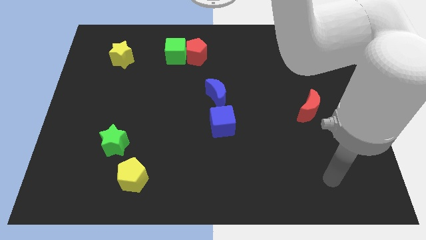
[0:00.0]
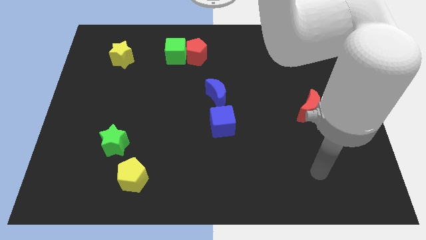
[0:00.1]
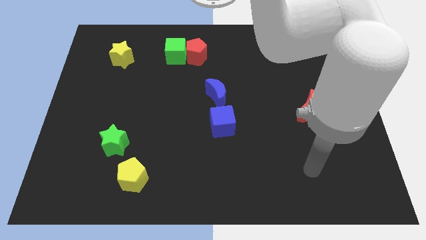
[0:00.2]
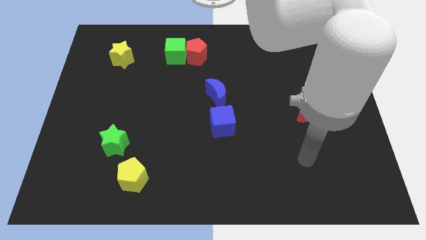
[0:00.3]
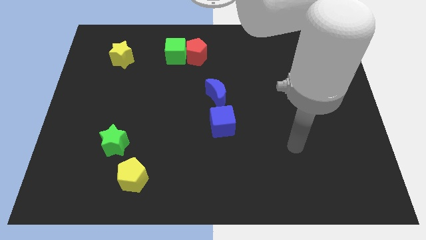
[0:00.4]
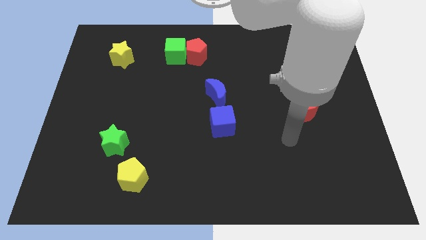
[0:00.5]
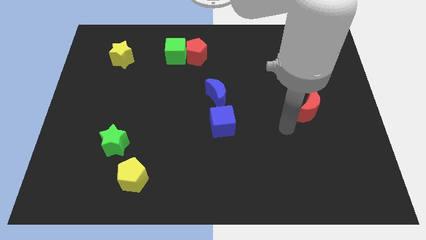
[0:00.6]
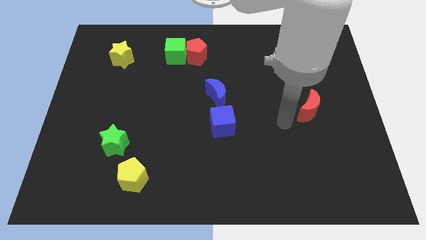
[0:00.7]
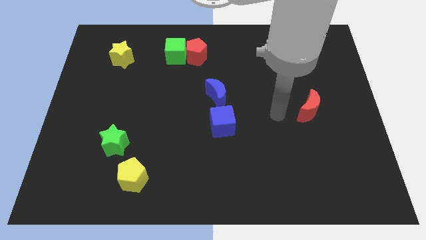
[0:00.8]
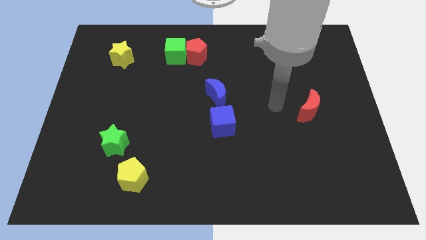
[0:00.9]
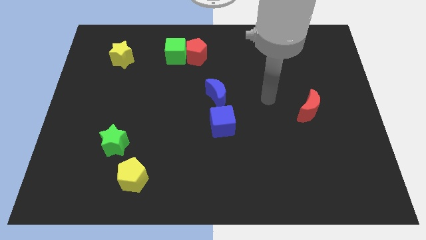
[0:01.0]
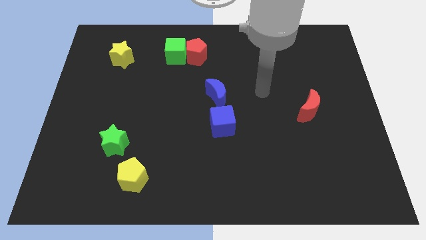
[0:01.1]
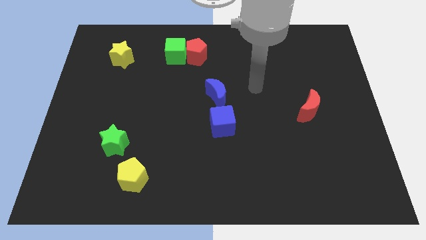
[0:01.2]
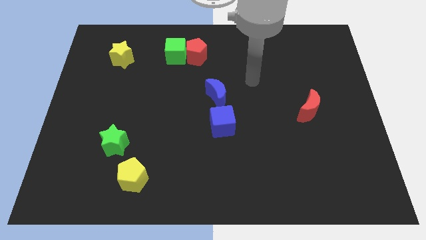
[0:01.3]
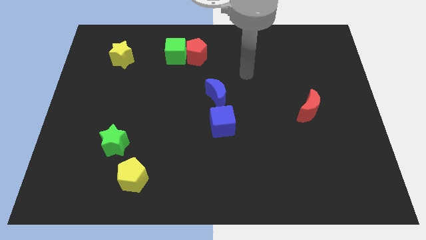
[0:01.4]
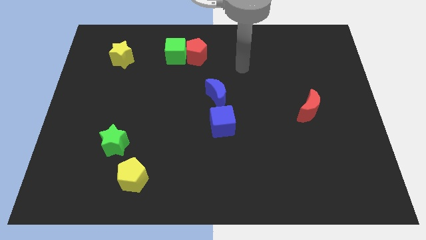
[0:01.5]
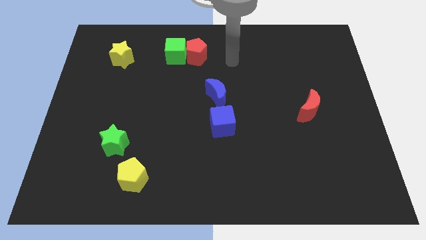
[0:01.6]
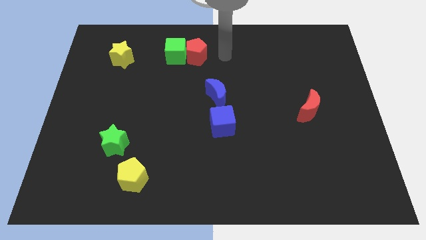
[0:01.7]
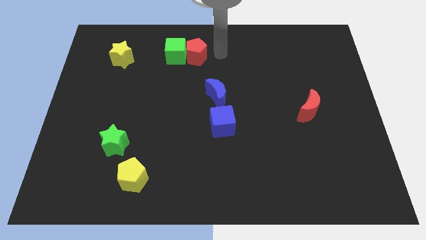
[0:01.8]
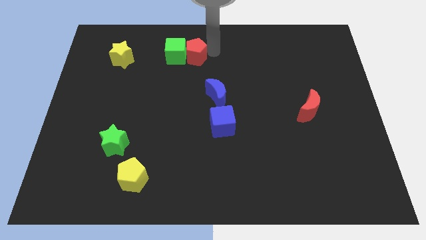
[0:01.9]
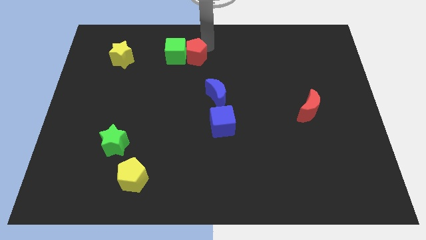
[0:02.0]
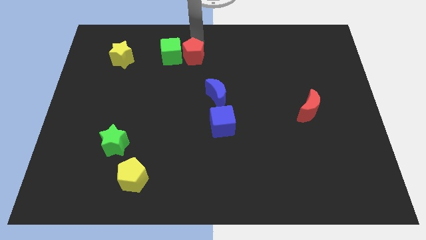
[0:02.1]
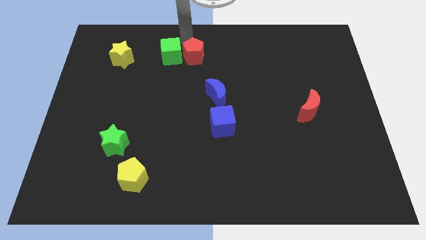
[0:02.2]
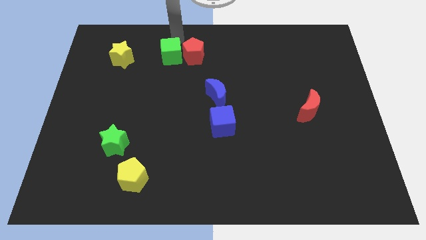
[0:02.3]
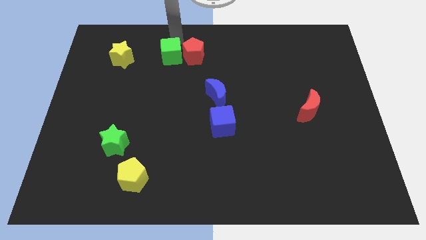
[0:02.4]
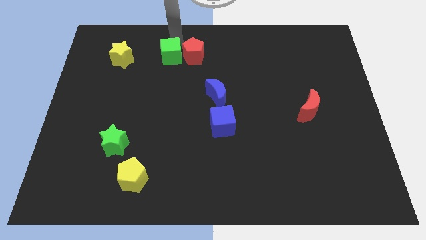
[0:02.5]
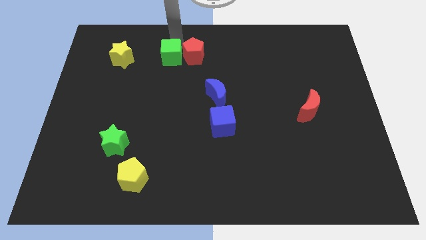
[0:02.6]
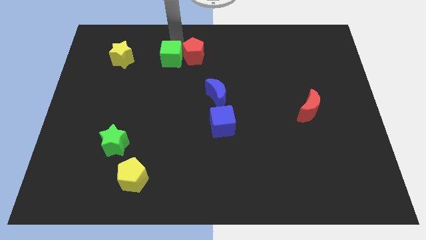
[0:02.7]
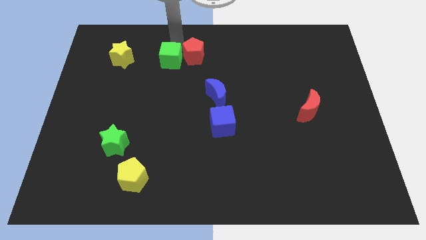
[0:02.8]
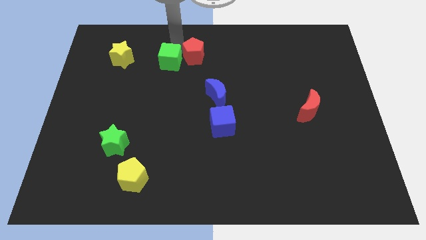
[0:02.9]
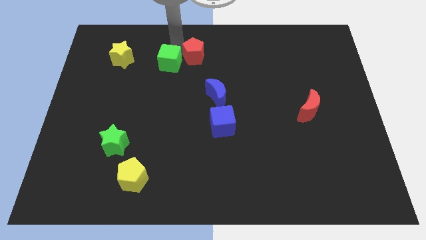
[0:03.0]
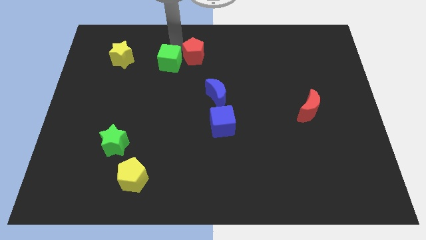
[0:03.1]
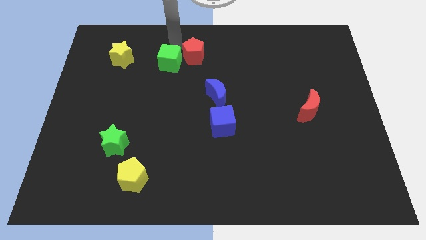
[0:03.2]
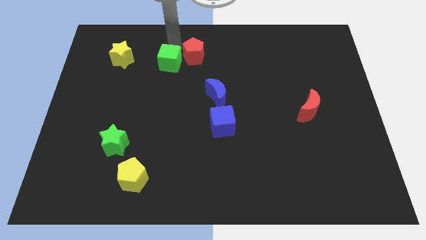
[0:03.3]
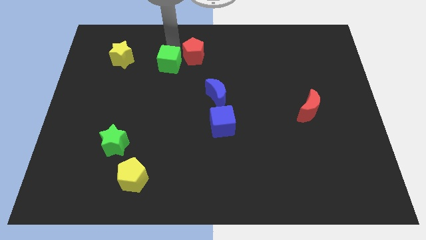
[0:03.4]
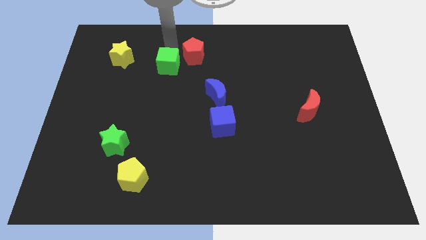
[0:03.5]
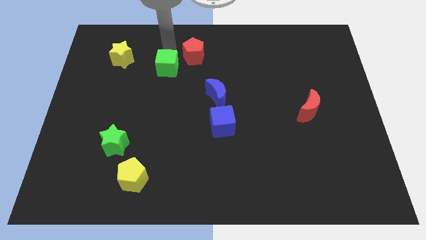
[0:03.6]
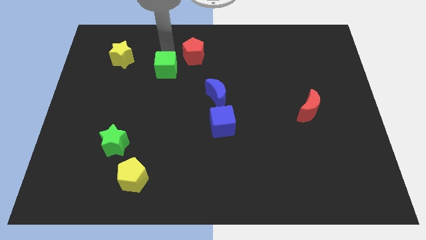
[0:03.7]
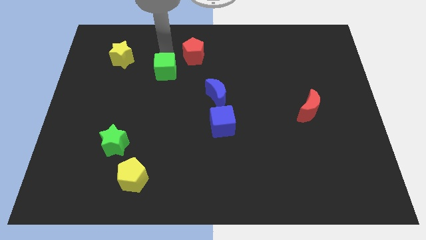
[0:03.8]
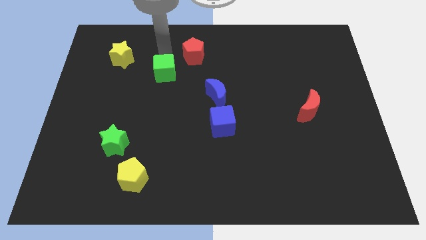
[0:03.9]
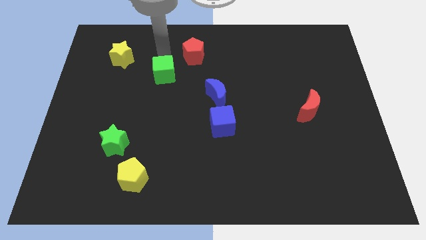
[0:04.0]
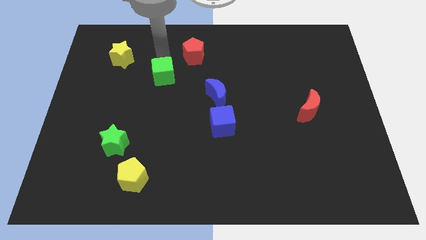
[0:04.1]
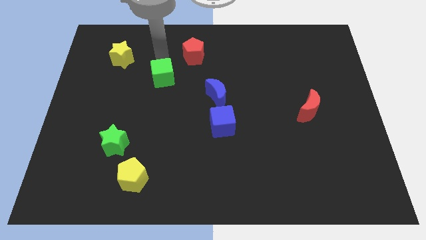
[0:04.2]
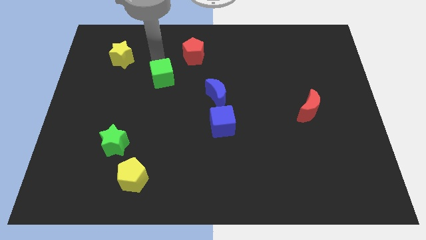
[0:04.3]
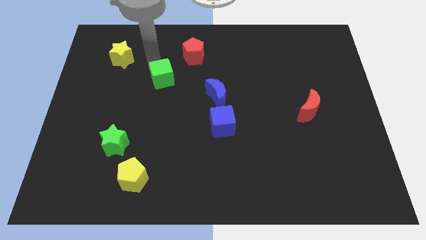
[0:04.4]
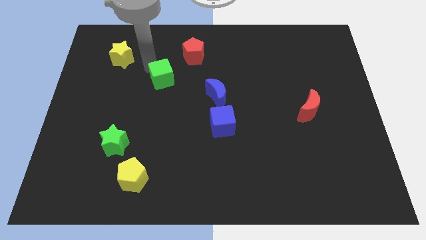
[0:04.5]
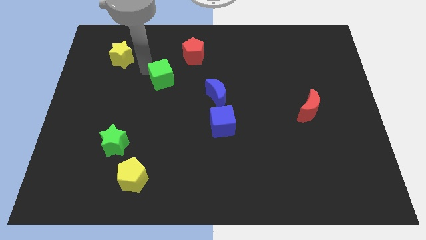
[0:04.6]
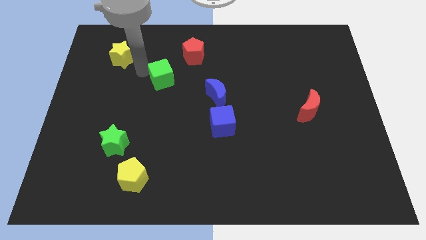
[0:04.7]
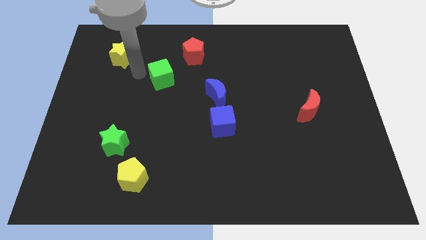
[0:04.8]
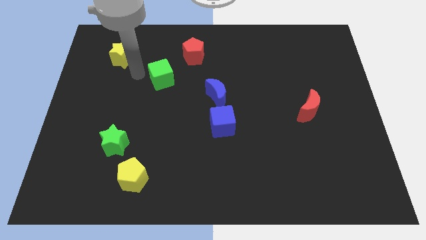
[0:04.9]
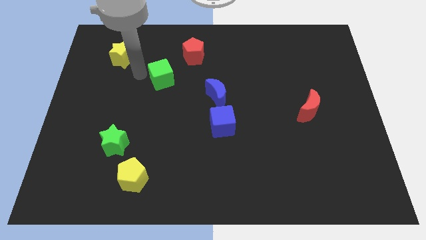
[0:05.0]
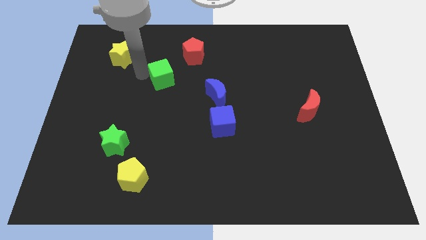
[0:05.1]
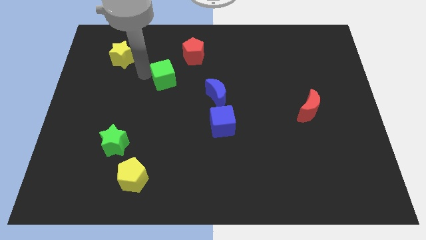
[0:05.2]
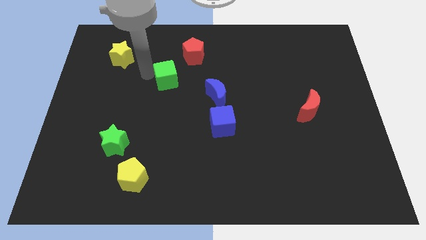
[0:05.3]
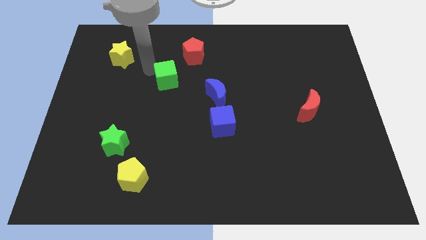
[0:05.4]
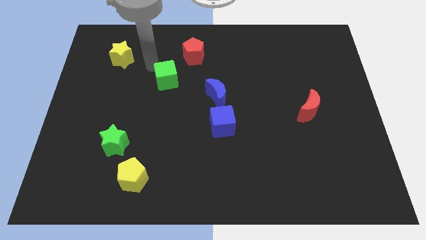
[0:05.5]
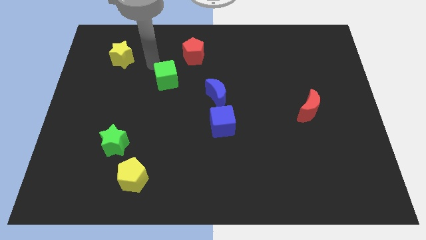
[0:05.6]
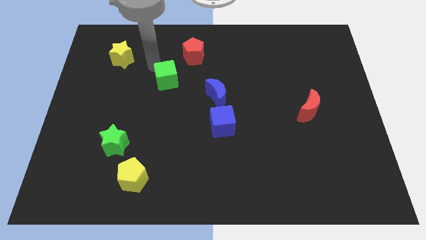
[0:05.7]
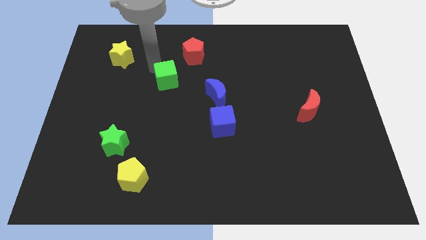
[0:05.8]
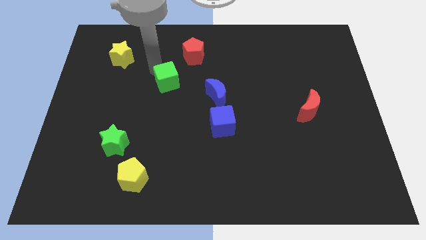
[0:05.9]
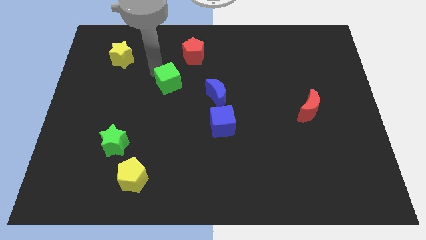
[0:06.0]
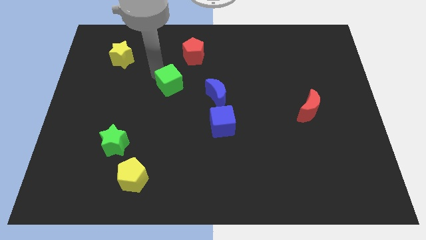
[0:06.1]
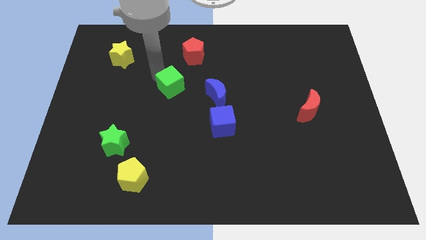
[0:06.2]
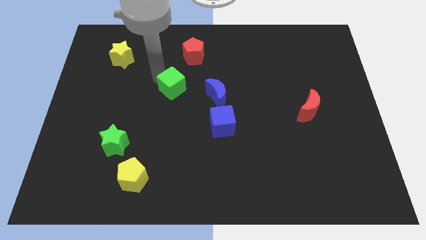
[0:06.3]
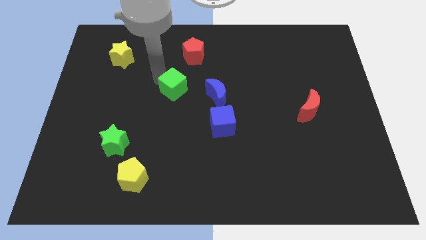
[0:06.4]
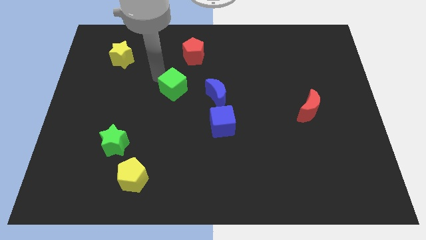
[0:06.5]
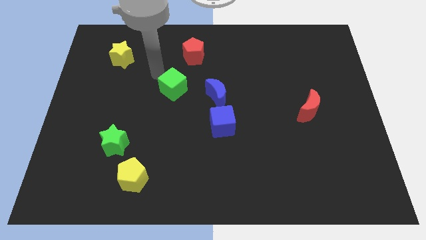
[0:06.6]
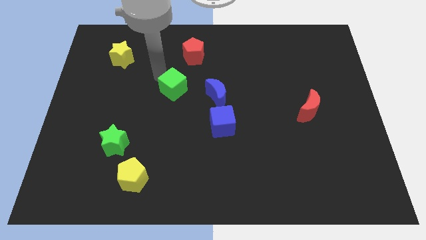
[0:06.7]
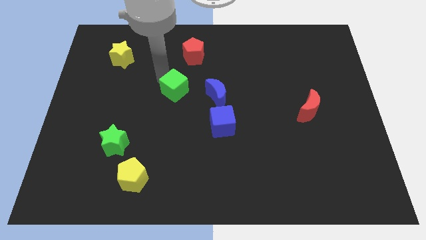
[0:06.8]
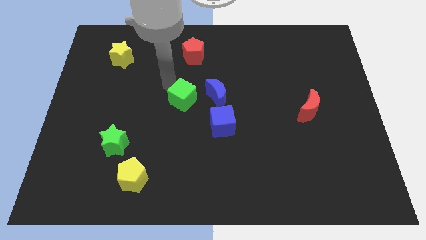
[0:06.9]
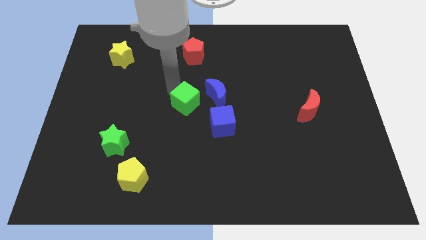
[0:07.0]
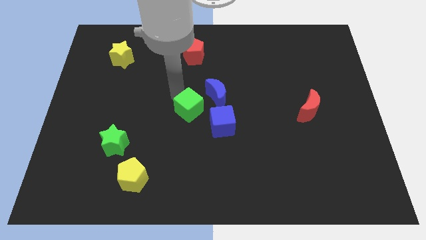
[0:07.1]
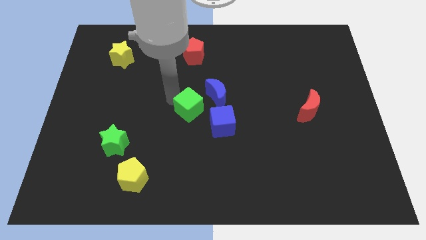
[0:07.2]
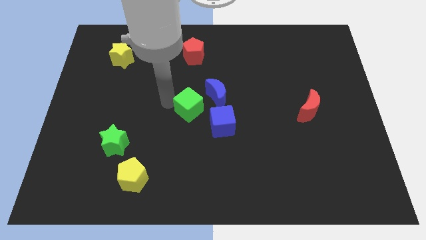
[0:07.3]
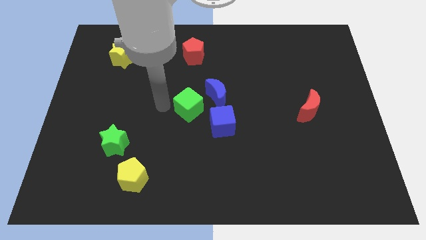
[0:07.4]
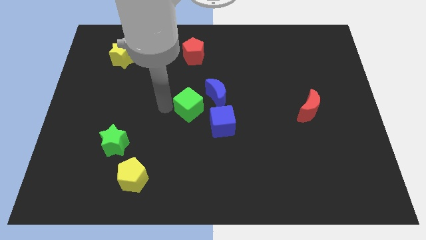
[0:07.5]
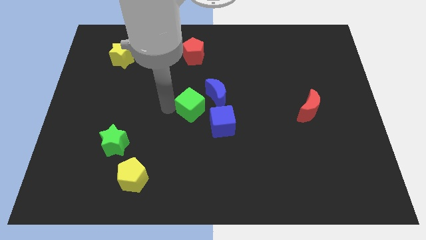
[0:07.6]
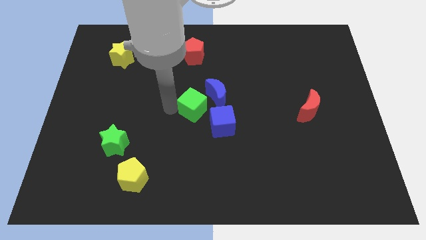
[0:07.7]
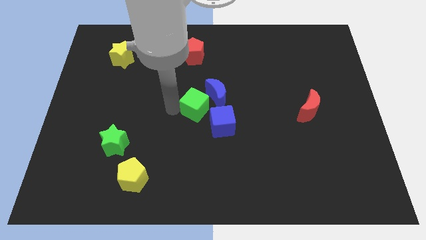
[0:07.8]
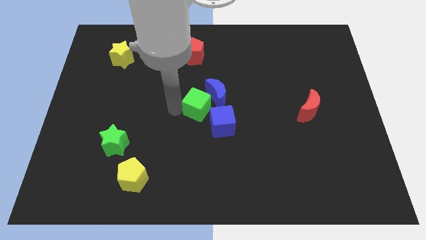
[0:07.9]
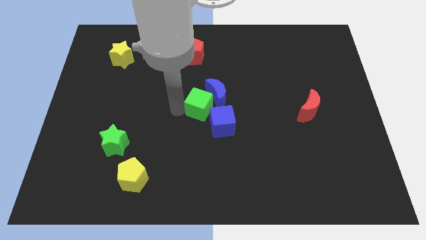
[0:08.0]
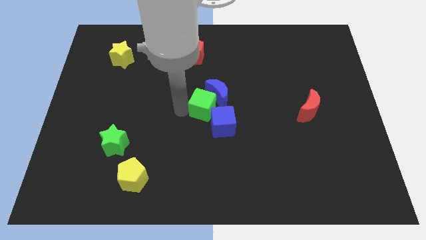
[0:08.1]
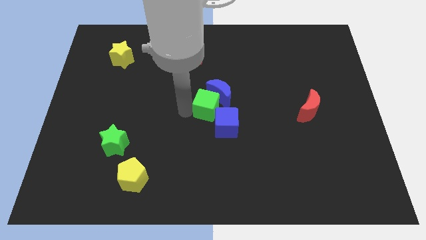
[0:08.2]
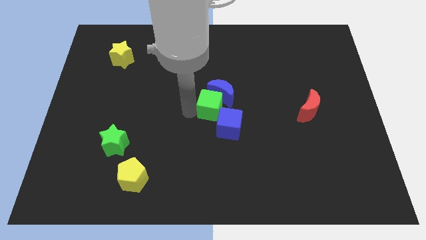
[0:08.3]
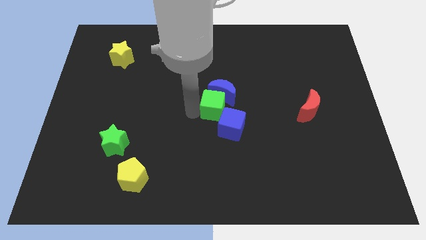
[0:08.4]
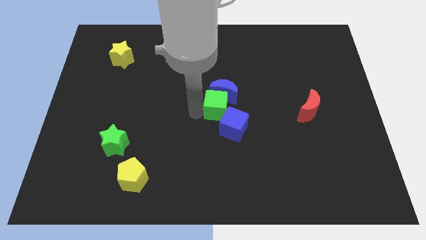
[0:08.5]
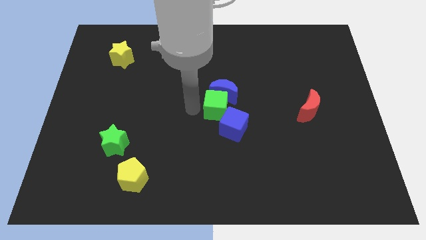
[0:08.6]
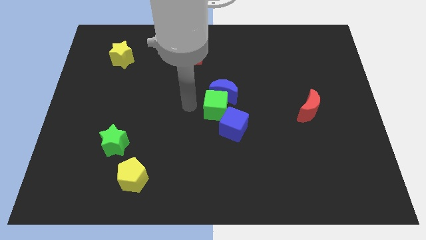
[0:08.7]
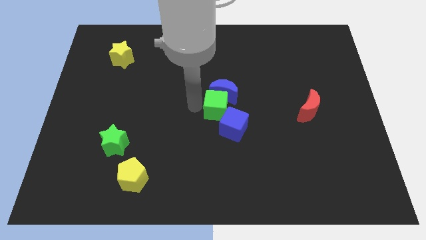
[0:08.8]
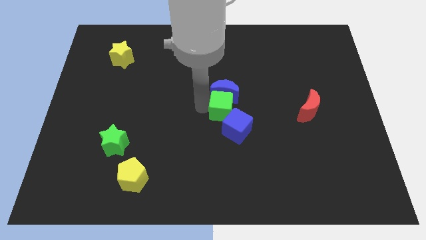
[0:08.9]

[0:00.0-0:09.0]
move the green cube diagonally downwards and right
